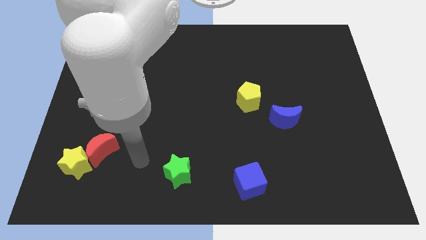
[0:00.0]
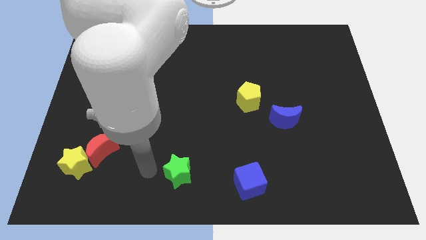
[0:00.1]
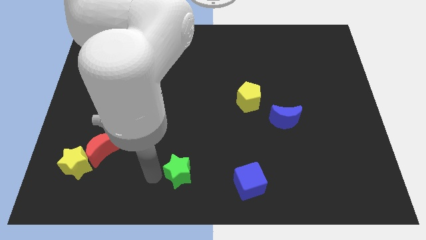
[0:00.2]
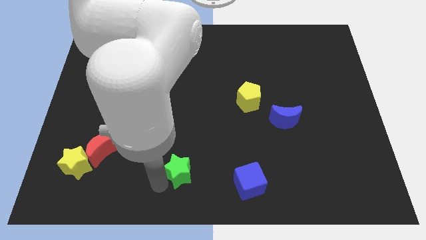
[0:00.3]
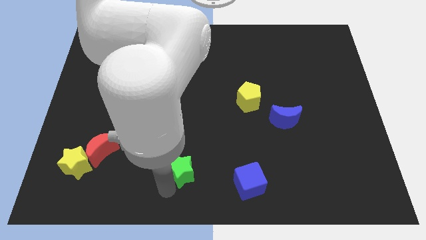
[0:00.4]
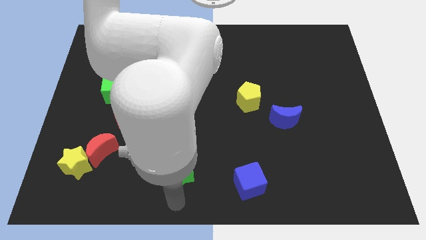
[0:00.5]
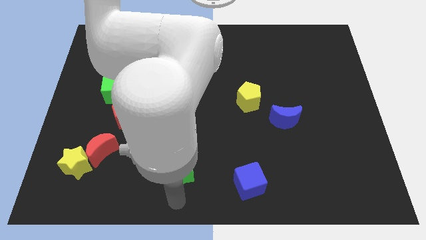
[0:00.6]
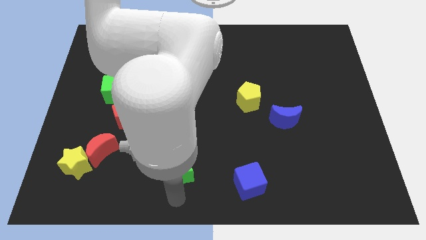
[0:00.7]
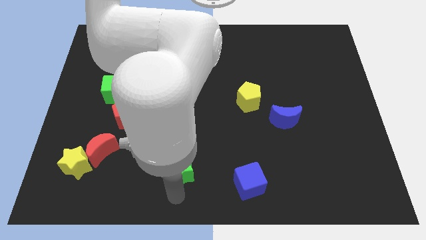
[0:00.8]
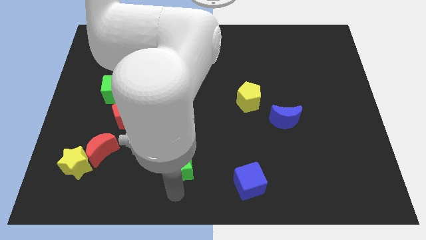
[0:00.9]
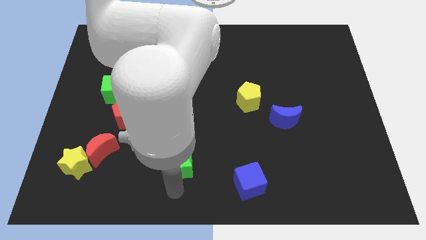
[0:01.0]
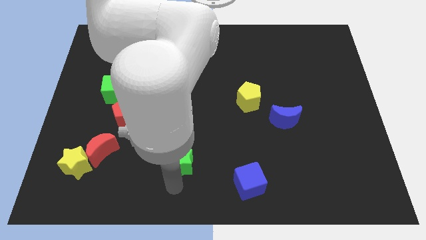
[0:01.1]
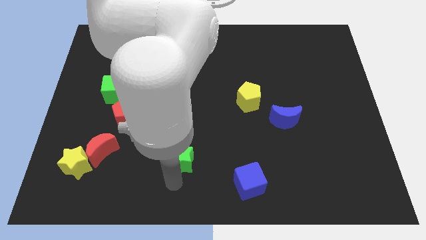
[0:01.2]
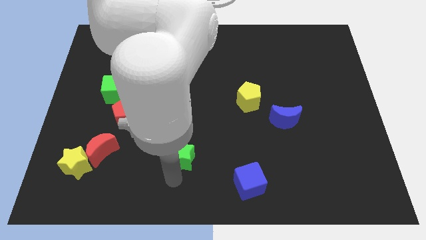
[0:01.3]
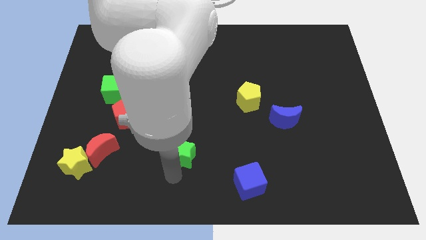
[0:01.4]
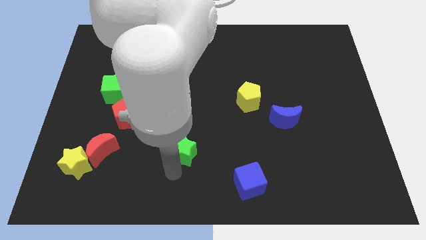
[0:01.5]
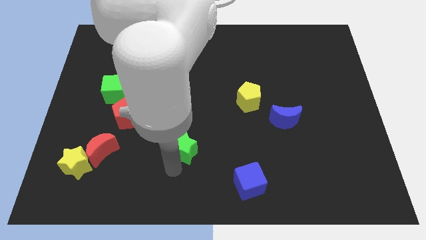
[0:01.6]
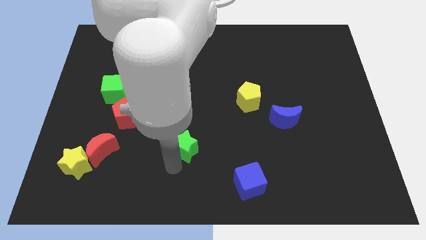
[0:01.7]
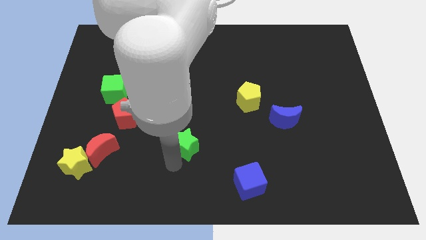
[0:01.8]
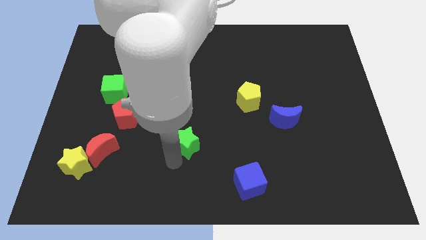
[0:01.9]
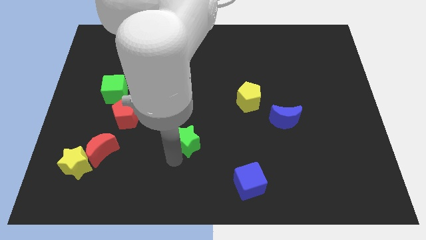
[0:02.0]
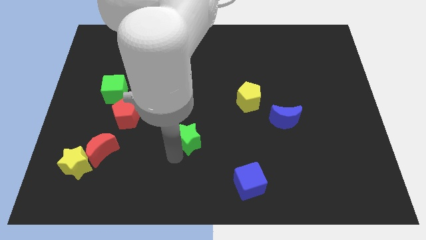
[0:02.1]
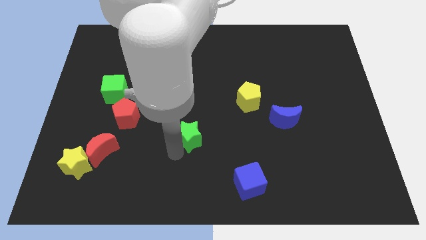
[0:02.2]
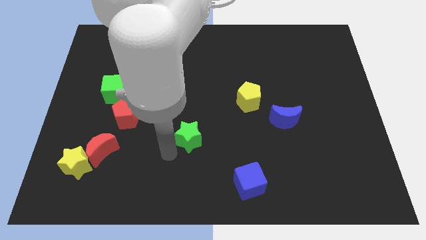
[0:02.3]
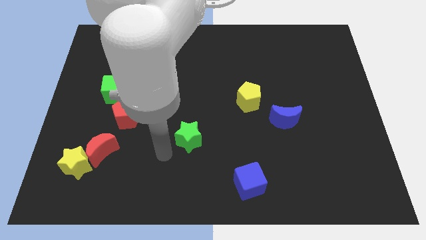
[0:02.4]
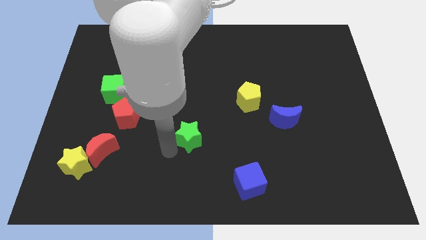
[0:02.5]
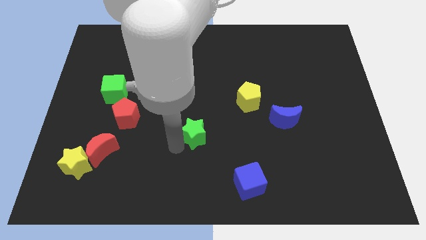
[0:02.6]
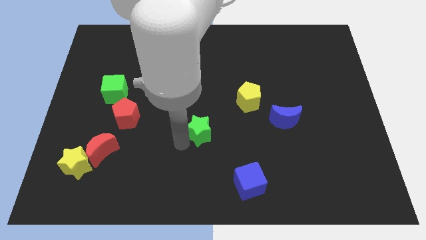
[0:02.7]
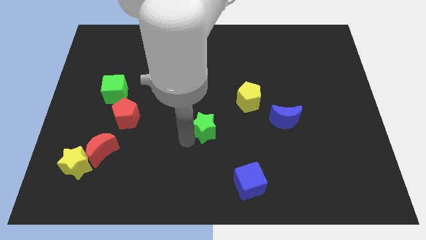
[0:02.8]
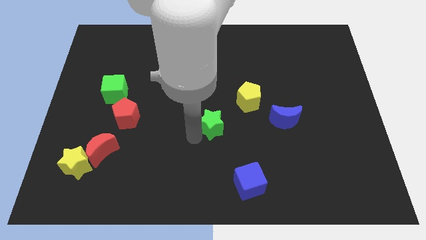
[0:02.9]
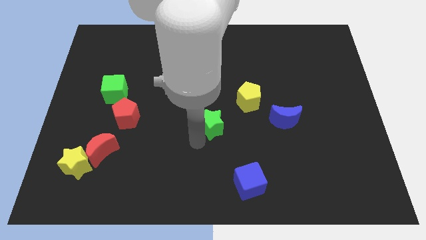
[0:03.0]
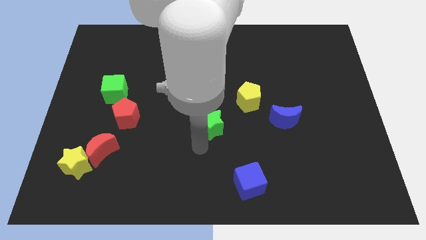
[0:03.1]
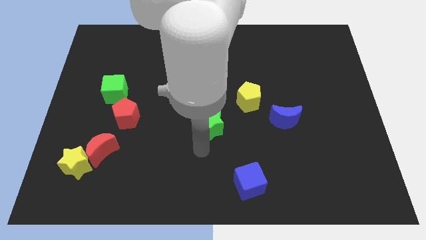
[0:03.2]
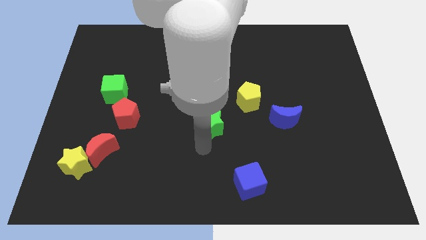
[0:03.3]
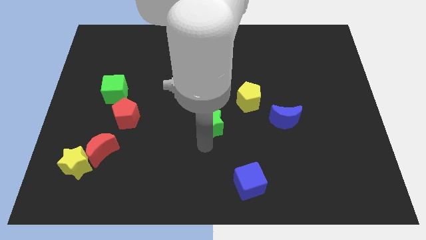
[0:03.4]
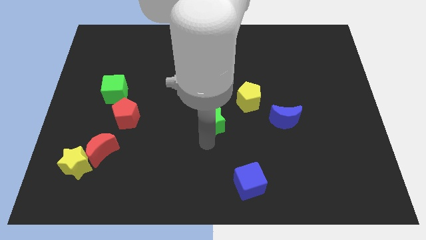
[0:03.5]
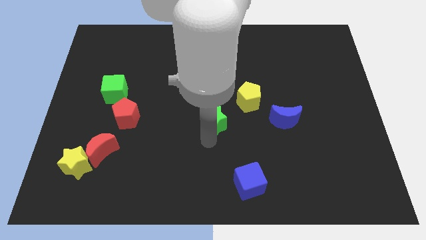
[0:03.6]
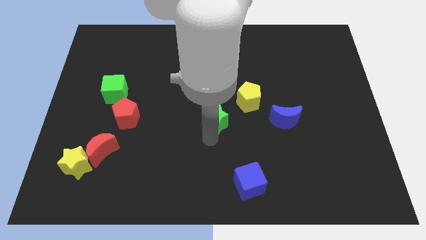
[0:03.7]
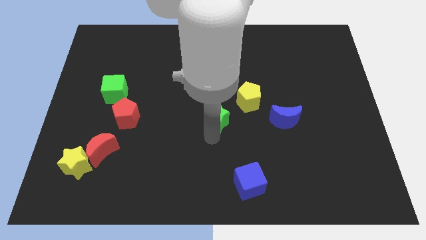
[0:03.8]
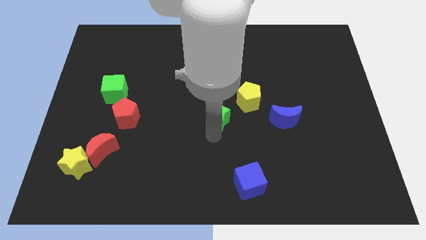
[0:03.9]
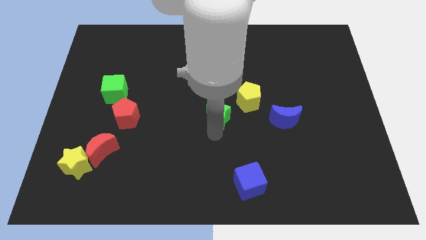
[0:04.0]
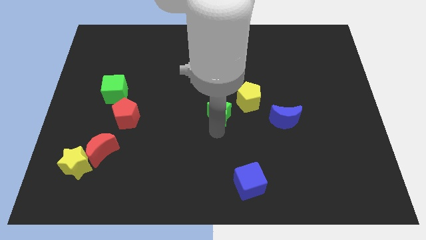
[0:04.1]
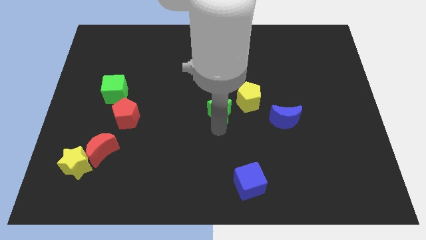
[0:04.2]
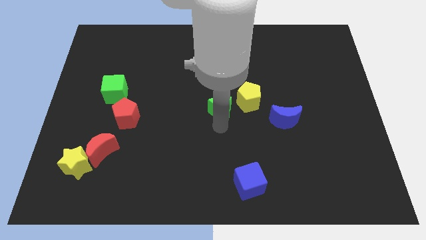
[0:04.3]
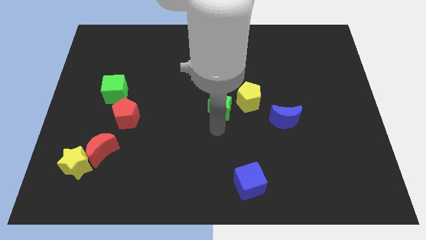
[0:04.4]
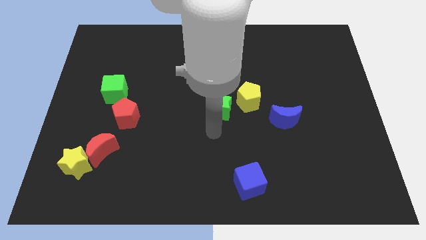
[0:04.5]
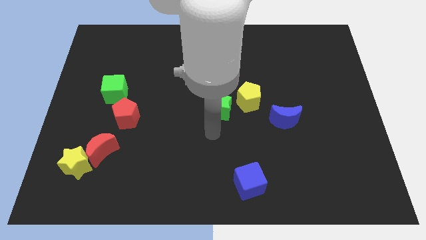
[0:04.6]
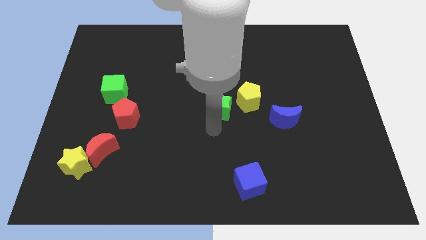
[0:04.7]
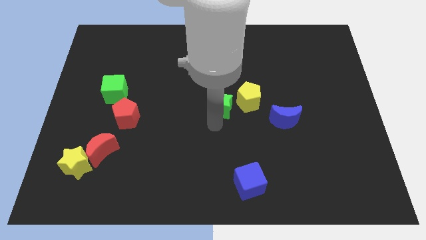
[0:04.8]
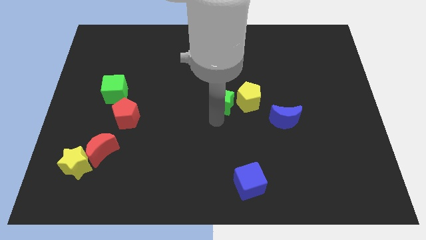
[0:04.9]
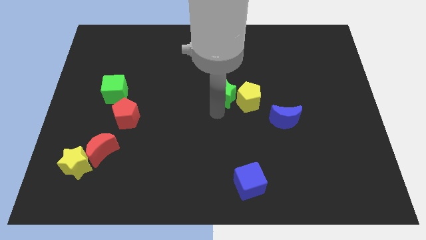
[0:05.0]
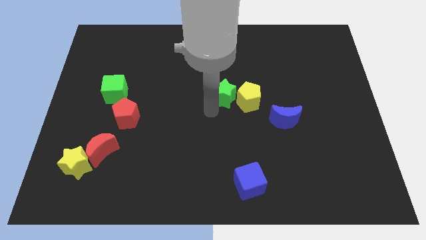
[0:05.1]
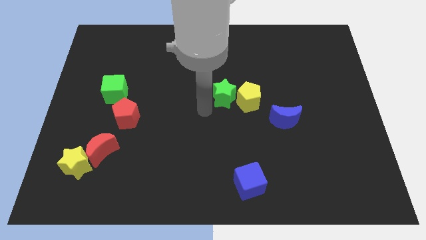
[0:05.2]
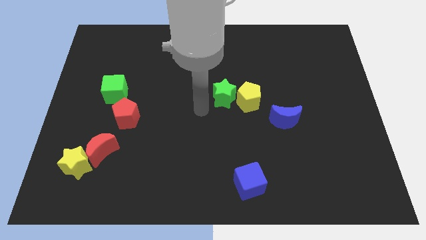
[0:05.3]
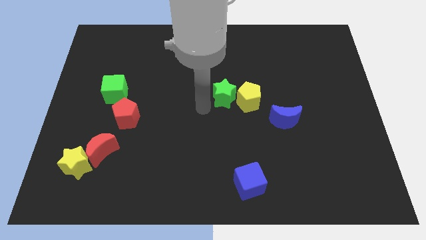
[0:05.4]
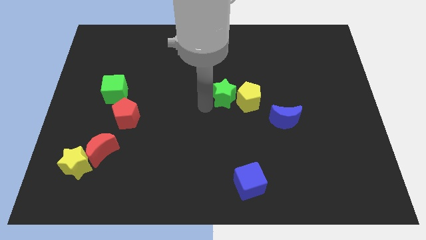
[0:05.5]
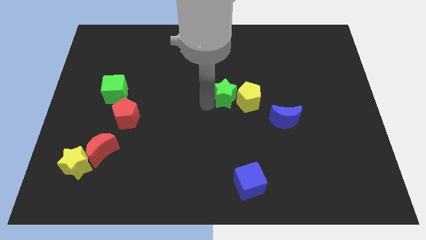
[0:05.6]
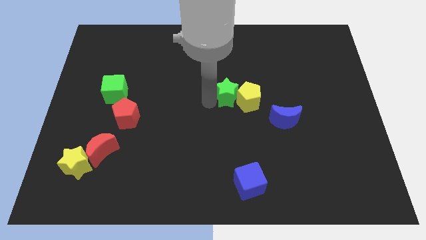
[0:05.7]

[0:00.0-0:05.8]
move the green star up and then right

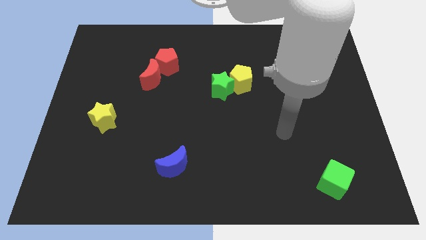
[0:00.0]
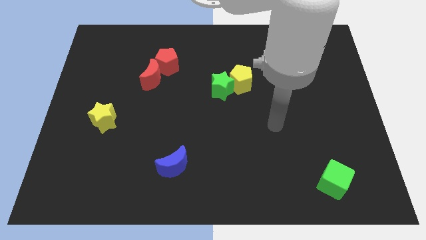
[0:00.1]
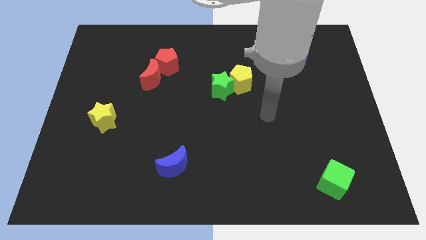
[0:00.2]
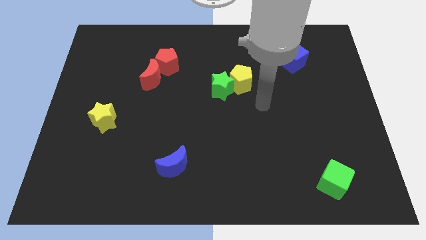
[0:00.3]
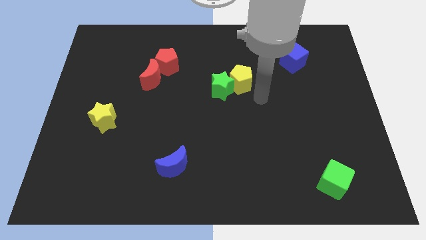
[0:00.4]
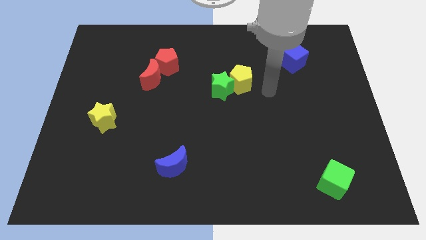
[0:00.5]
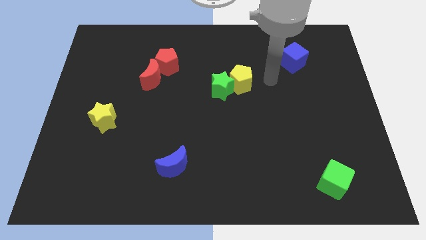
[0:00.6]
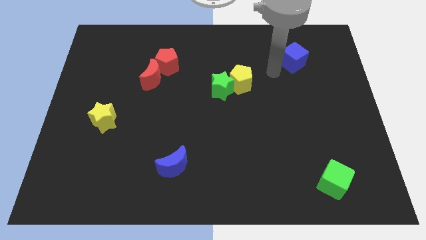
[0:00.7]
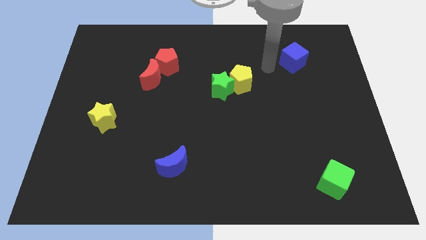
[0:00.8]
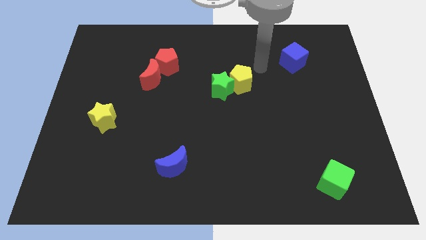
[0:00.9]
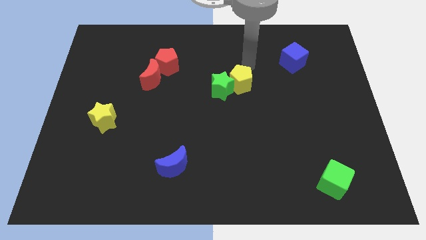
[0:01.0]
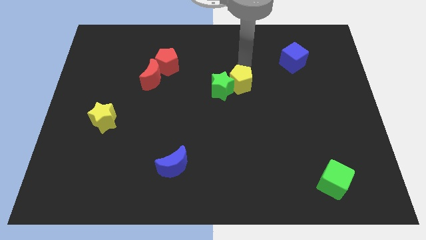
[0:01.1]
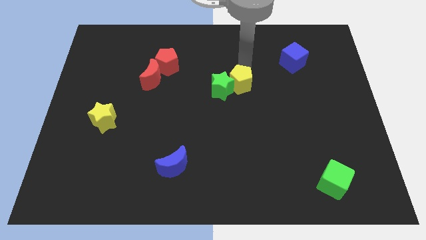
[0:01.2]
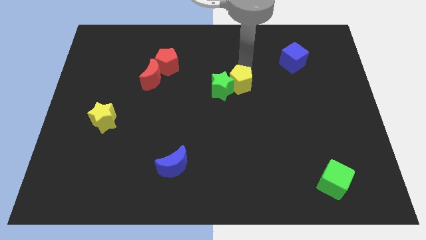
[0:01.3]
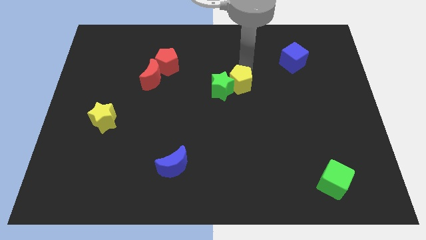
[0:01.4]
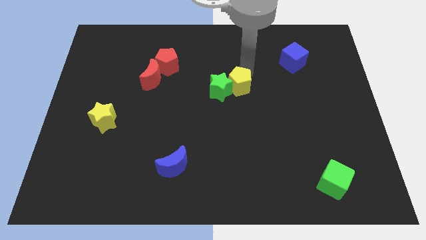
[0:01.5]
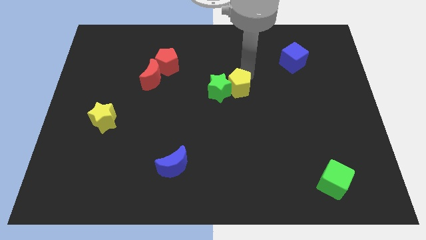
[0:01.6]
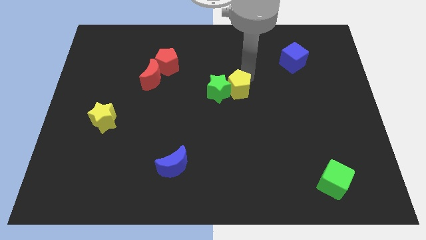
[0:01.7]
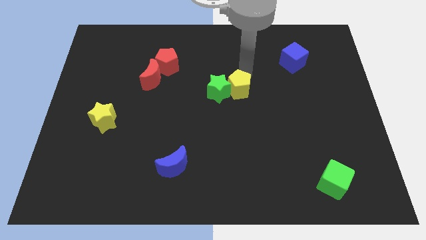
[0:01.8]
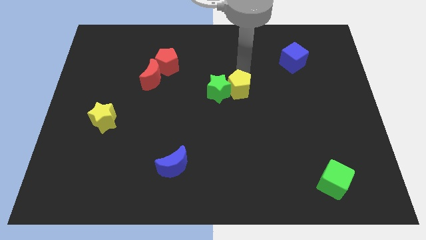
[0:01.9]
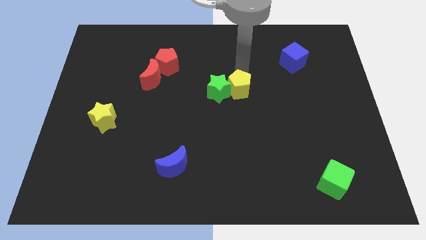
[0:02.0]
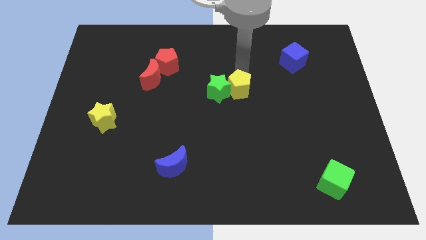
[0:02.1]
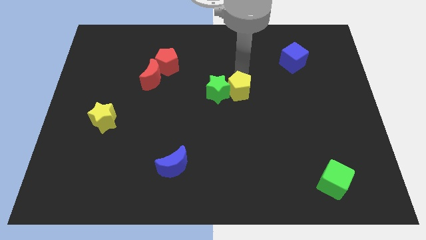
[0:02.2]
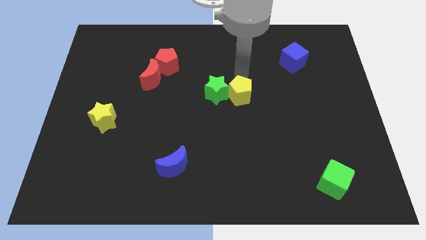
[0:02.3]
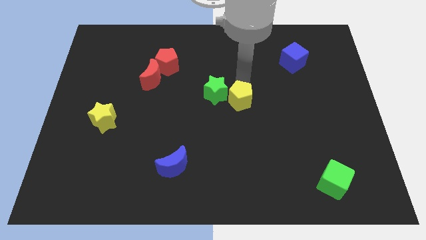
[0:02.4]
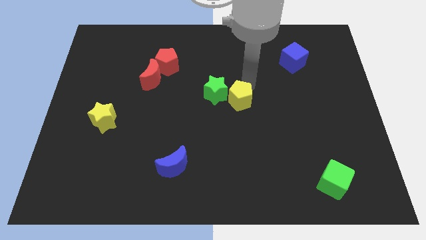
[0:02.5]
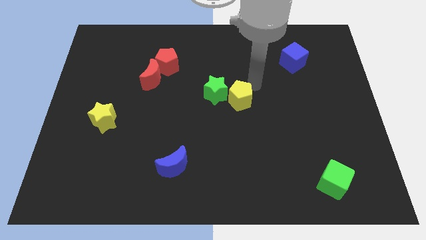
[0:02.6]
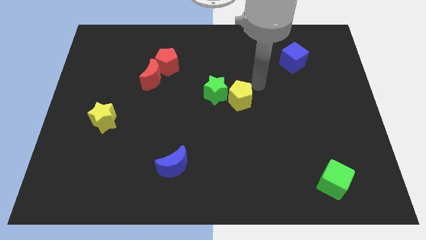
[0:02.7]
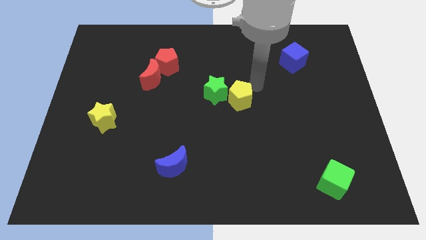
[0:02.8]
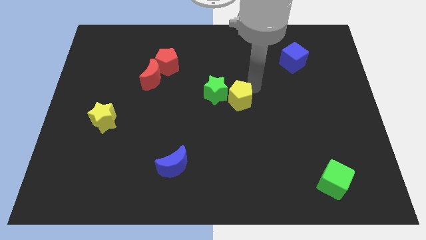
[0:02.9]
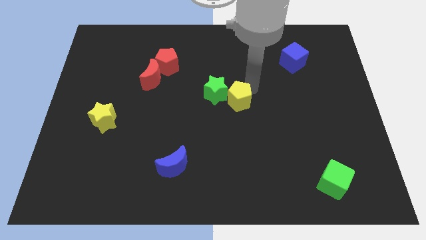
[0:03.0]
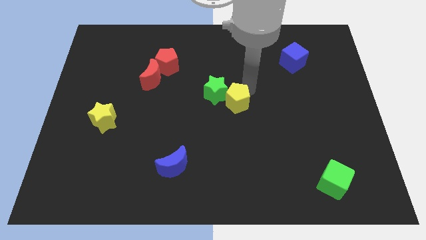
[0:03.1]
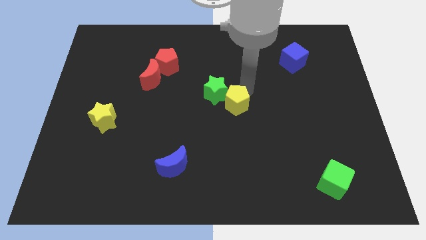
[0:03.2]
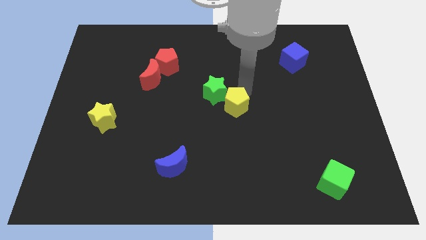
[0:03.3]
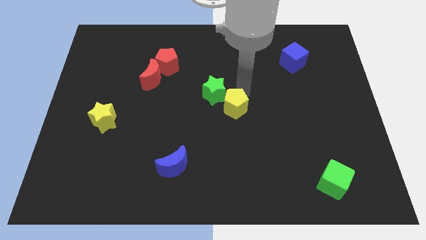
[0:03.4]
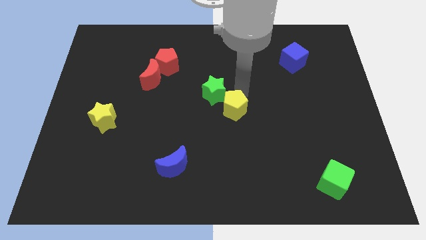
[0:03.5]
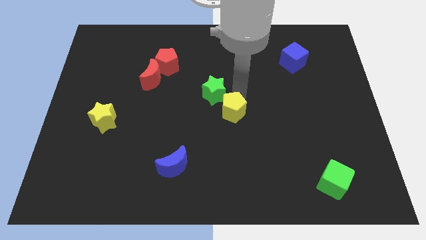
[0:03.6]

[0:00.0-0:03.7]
push the yellow pentagon a little down and left diagonally
